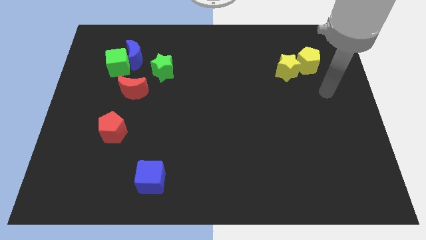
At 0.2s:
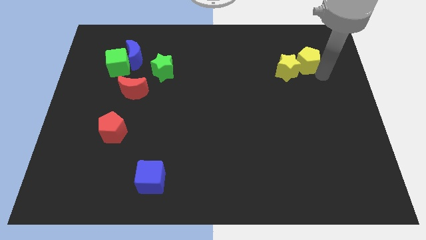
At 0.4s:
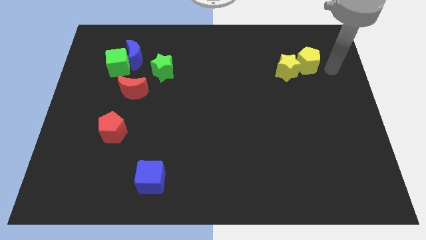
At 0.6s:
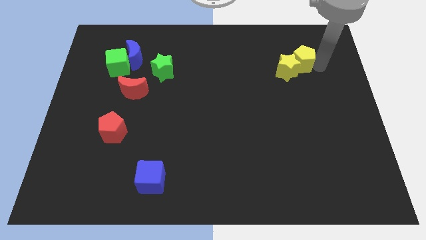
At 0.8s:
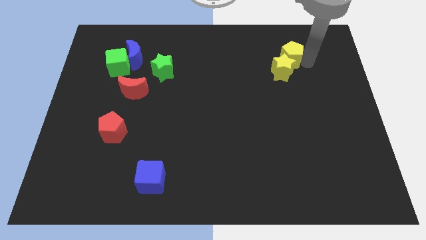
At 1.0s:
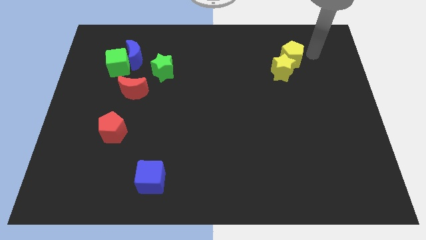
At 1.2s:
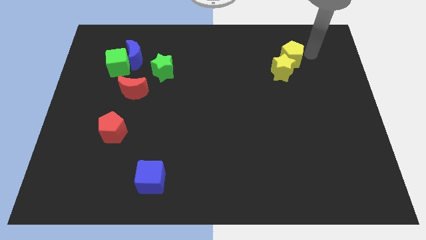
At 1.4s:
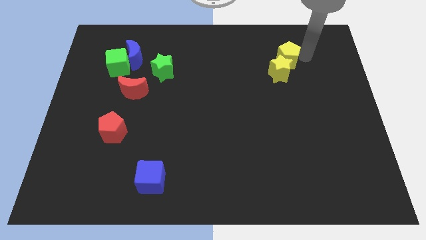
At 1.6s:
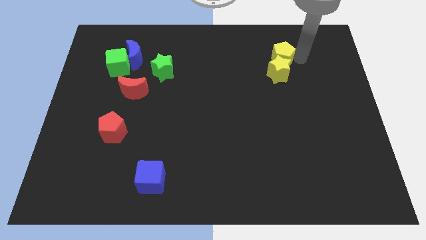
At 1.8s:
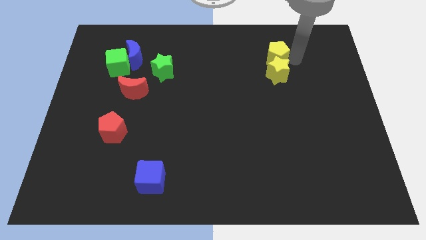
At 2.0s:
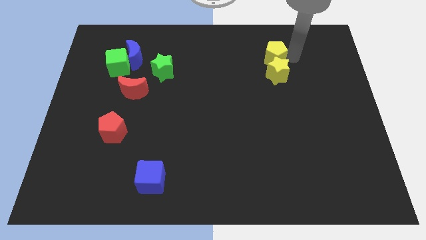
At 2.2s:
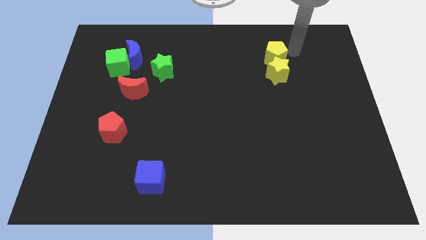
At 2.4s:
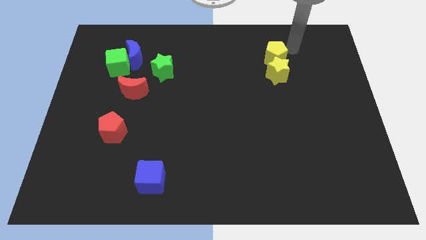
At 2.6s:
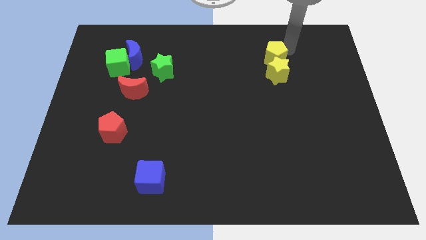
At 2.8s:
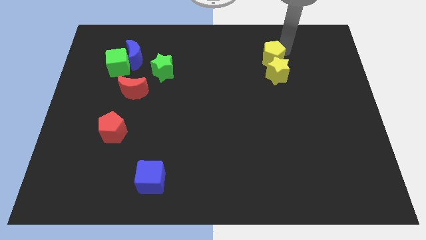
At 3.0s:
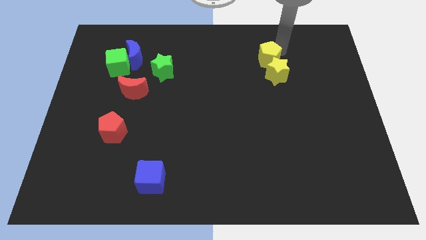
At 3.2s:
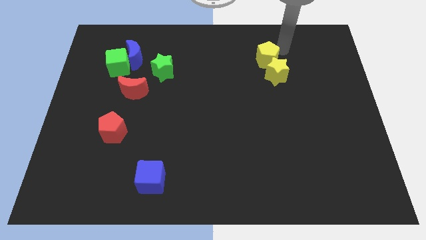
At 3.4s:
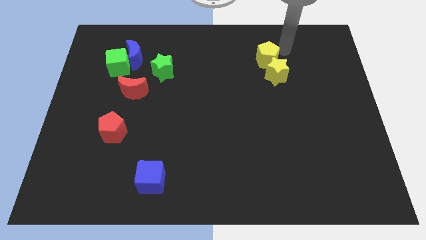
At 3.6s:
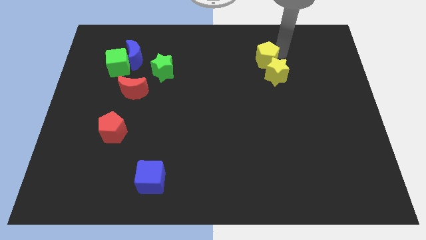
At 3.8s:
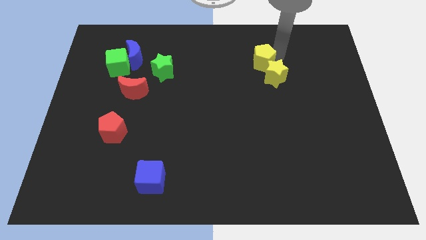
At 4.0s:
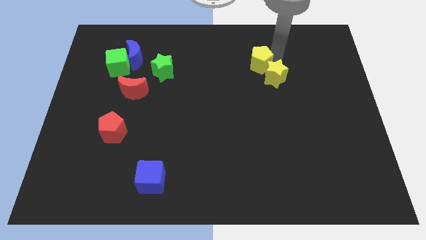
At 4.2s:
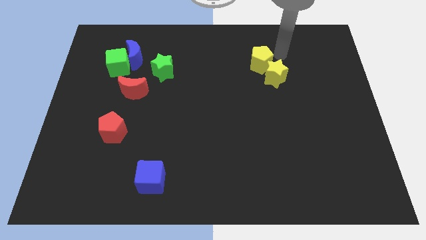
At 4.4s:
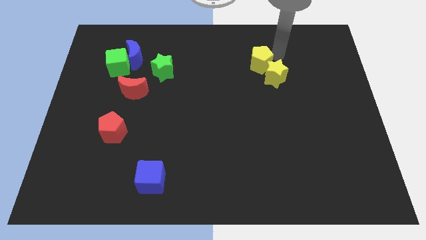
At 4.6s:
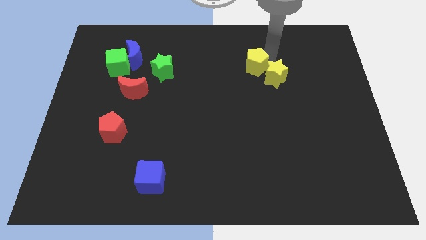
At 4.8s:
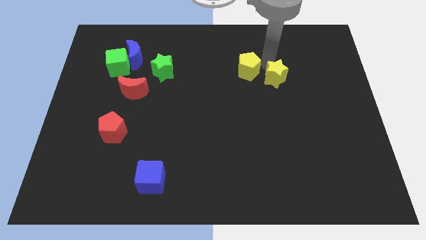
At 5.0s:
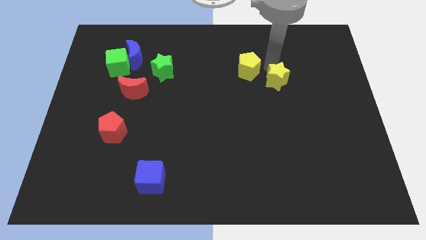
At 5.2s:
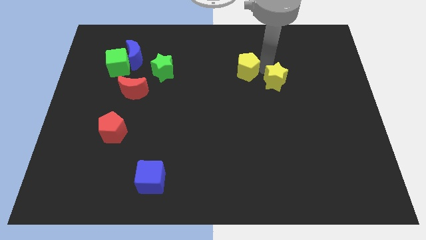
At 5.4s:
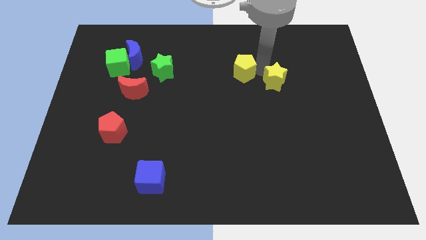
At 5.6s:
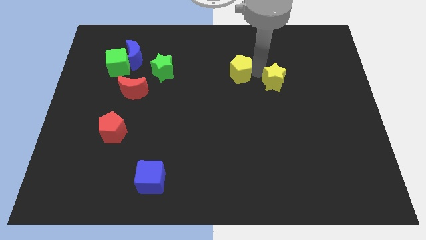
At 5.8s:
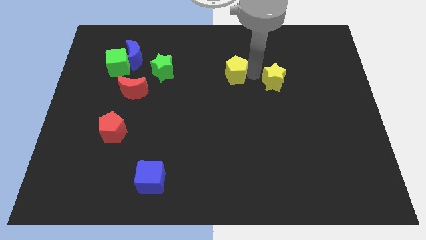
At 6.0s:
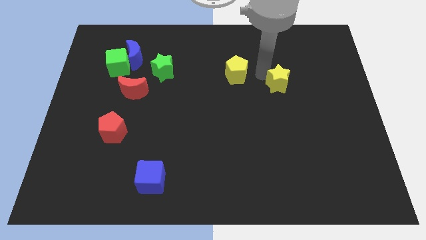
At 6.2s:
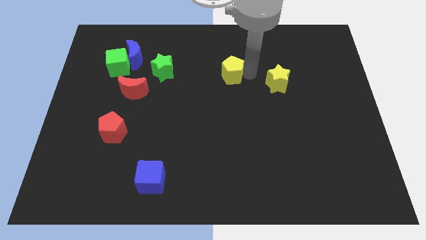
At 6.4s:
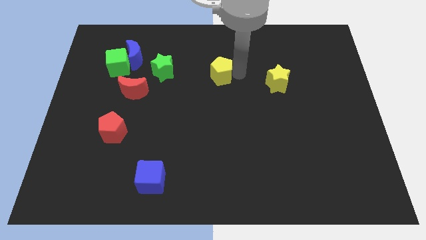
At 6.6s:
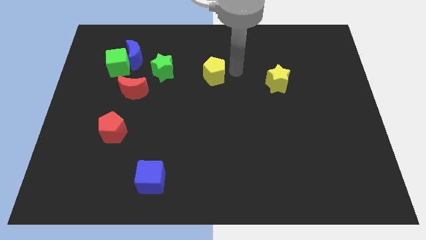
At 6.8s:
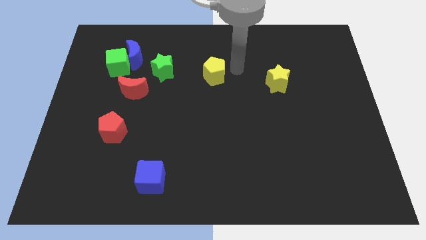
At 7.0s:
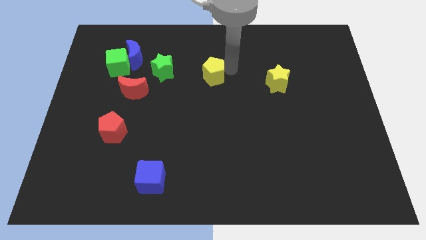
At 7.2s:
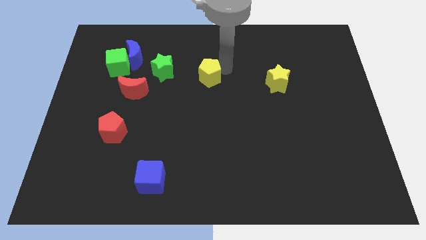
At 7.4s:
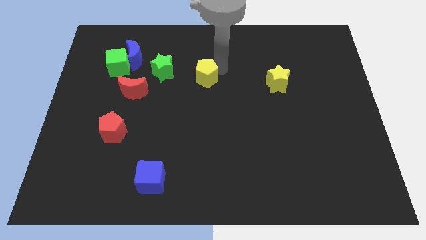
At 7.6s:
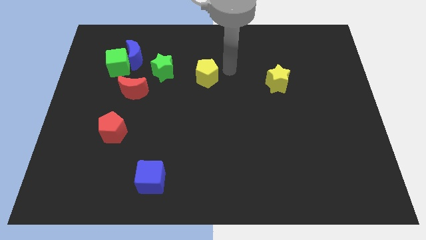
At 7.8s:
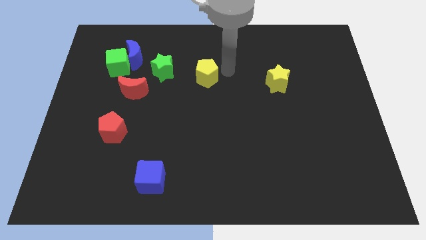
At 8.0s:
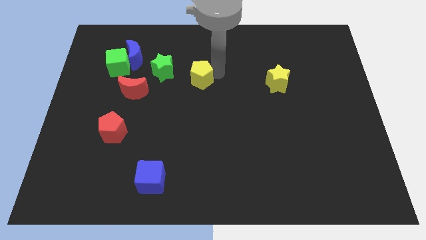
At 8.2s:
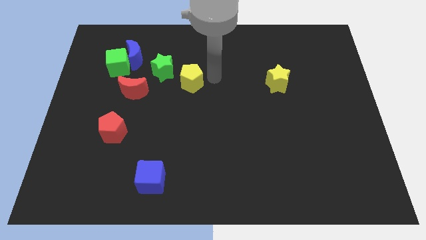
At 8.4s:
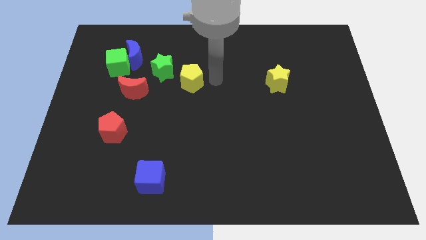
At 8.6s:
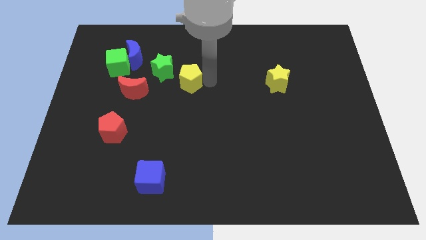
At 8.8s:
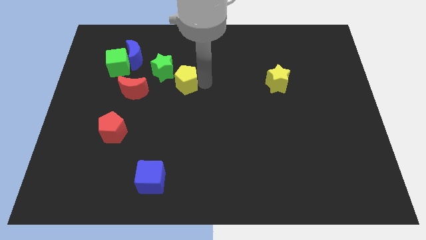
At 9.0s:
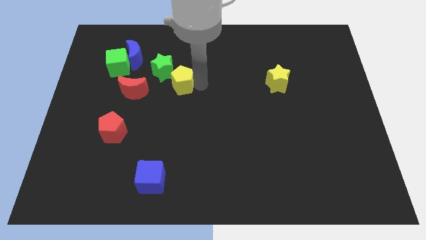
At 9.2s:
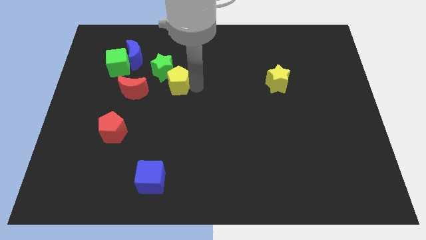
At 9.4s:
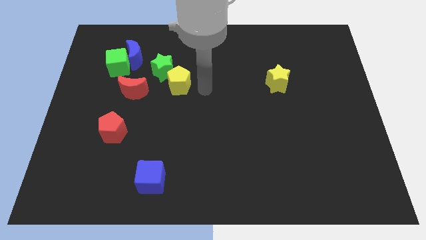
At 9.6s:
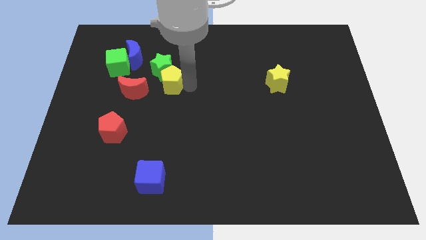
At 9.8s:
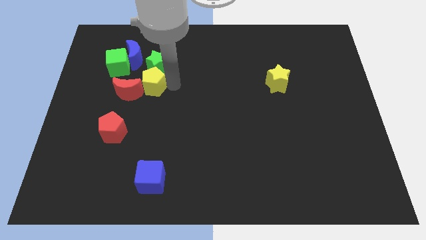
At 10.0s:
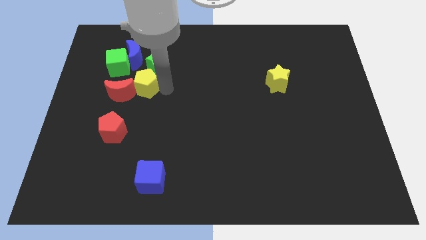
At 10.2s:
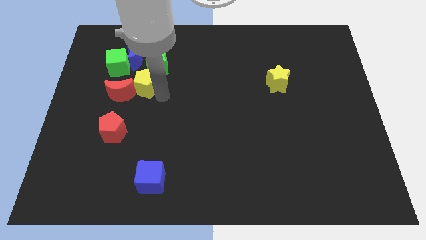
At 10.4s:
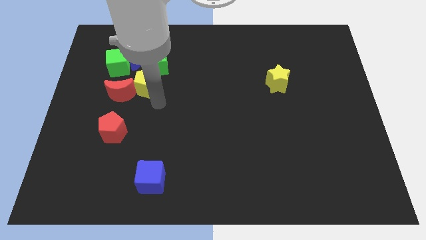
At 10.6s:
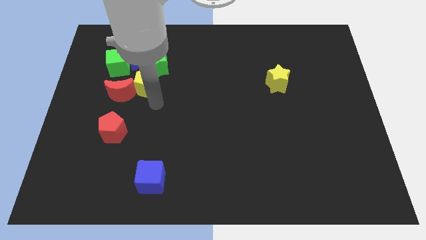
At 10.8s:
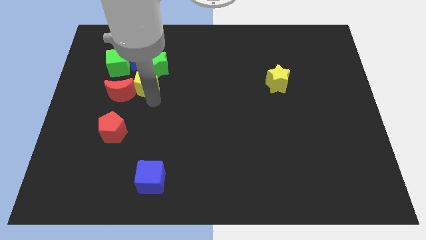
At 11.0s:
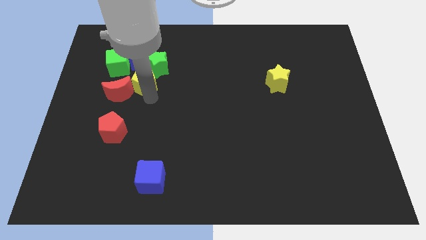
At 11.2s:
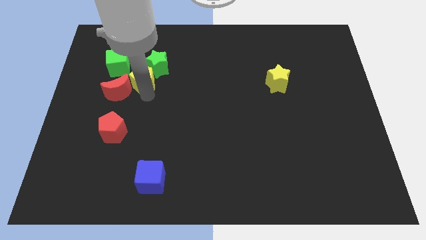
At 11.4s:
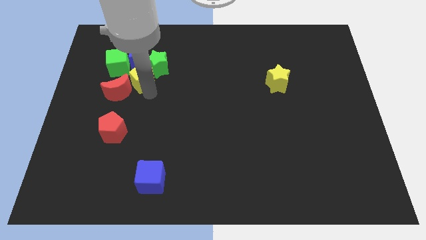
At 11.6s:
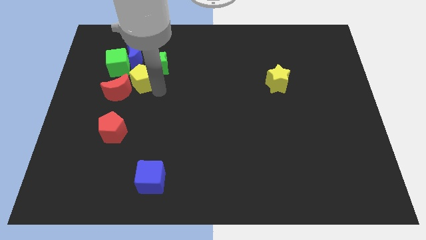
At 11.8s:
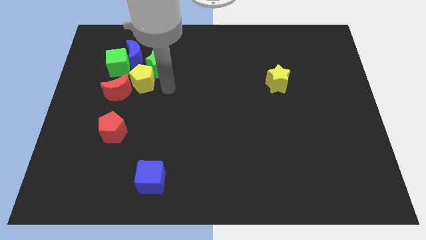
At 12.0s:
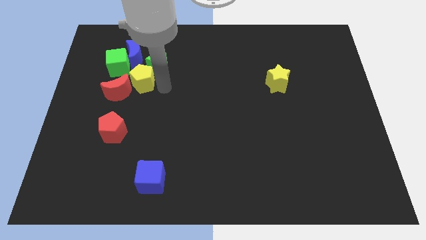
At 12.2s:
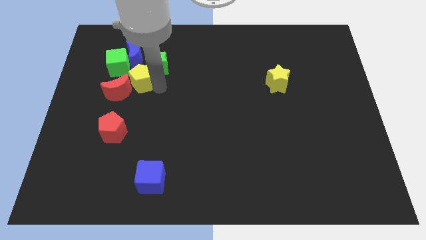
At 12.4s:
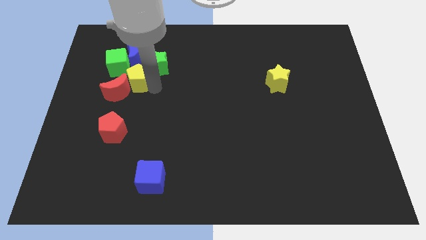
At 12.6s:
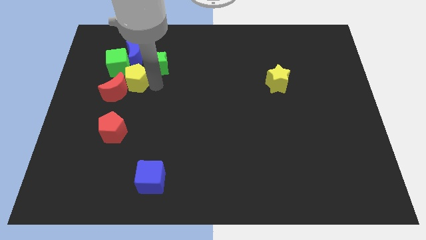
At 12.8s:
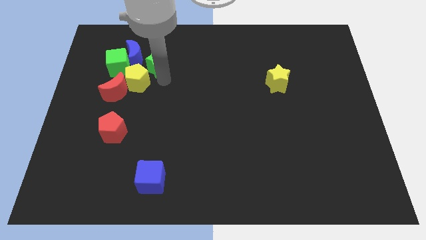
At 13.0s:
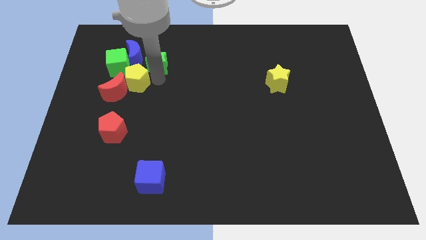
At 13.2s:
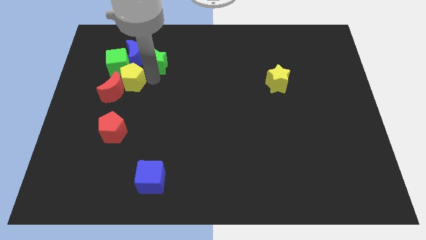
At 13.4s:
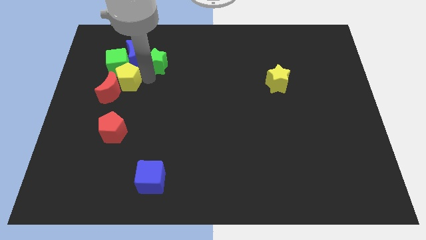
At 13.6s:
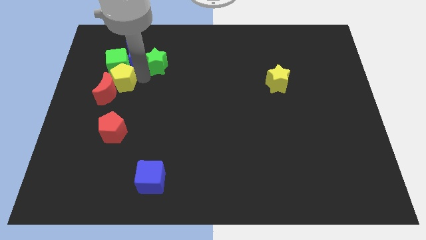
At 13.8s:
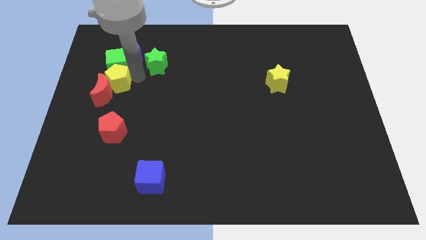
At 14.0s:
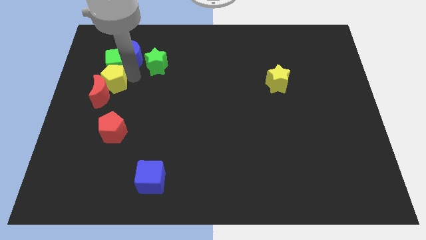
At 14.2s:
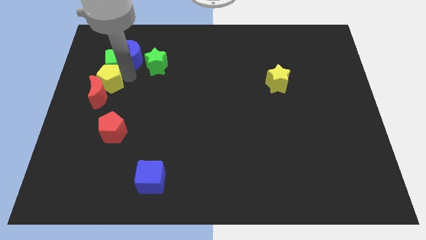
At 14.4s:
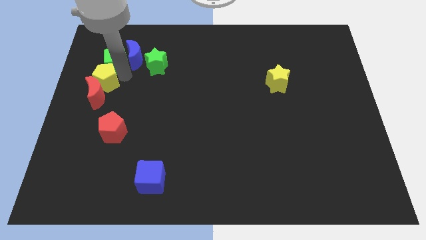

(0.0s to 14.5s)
move the yellow pentagon to the center left
